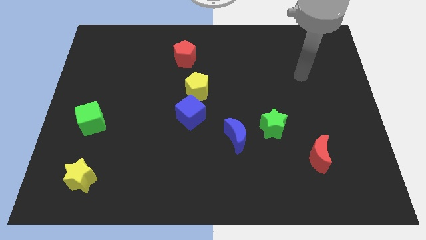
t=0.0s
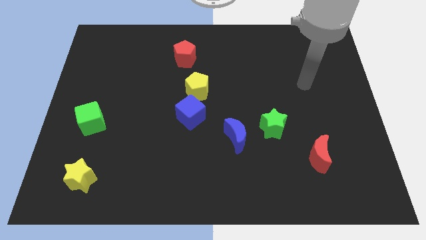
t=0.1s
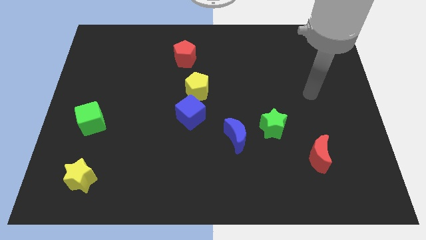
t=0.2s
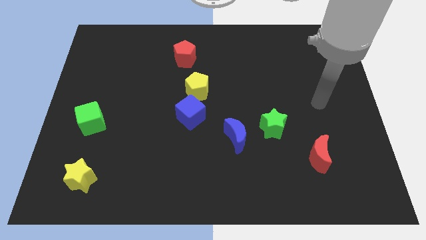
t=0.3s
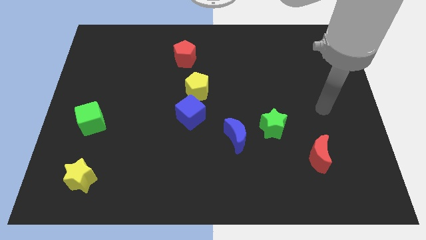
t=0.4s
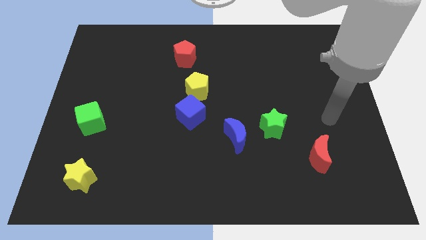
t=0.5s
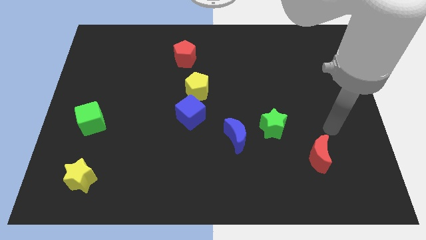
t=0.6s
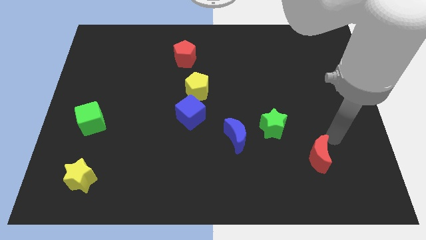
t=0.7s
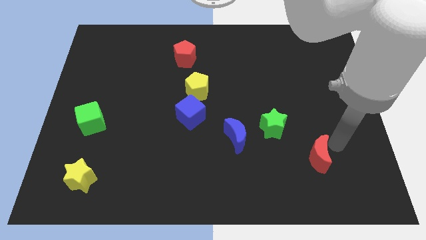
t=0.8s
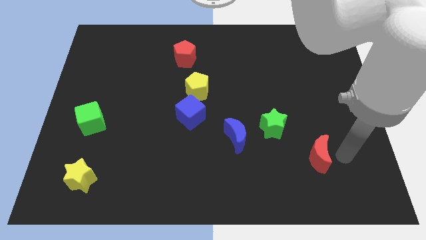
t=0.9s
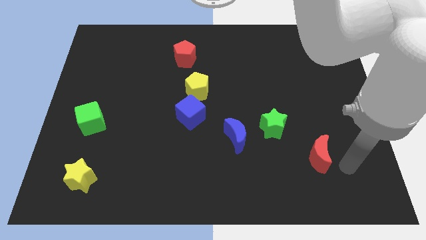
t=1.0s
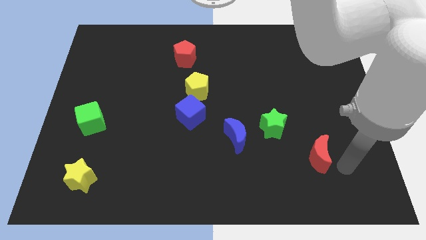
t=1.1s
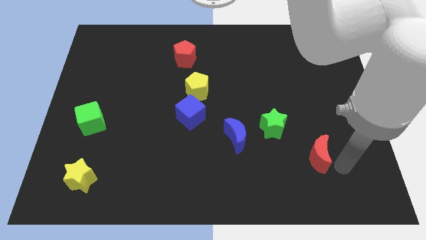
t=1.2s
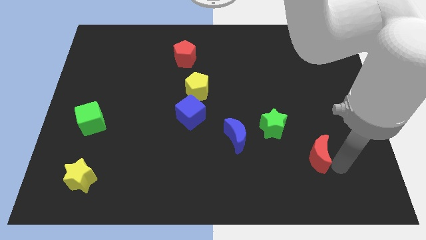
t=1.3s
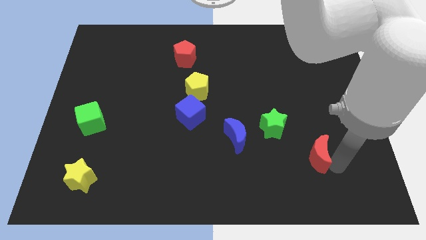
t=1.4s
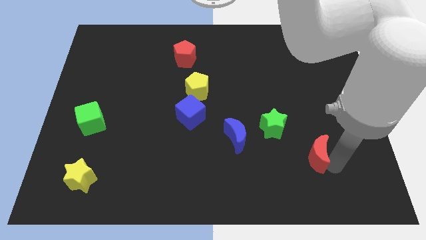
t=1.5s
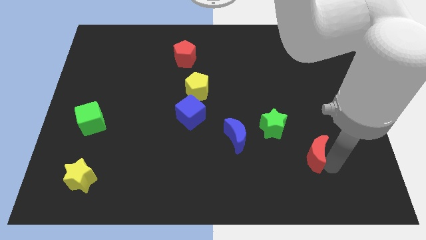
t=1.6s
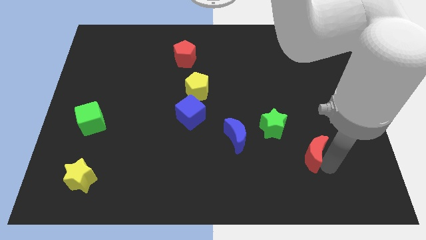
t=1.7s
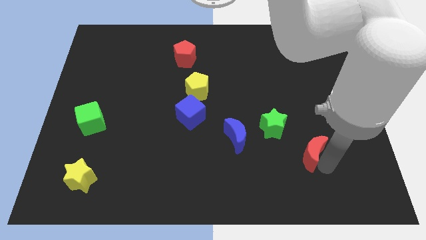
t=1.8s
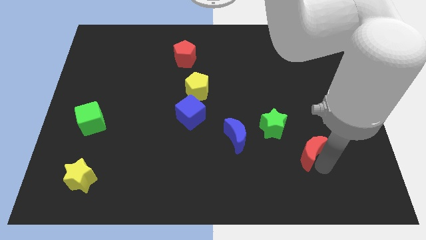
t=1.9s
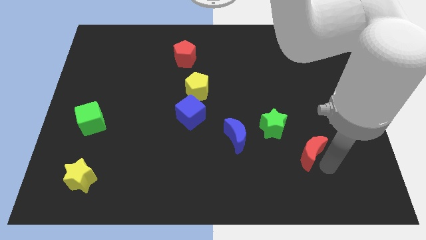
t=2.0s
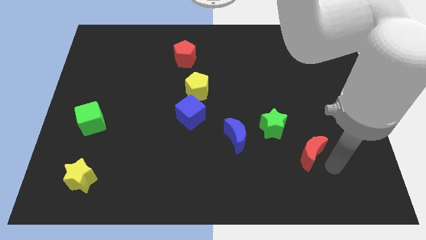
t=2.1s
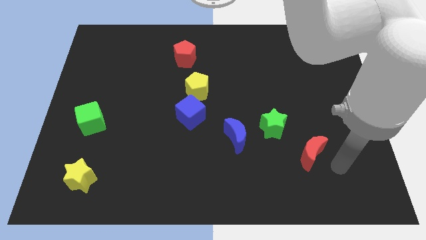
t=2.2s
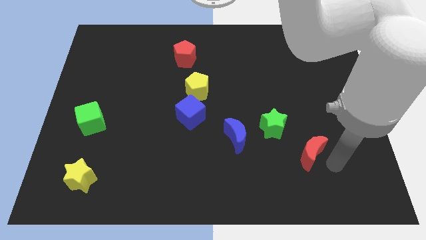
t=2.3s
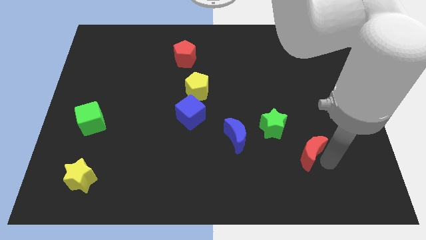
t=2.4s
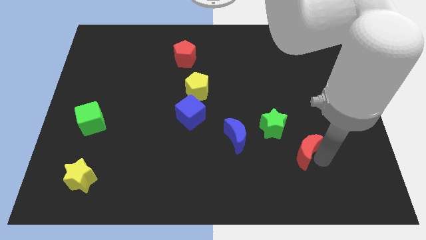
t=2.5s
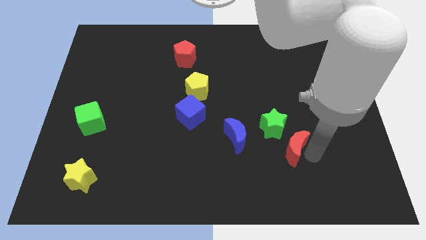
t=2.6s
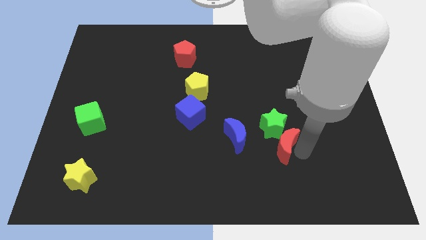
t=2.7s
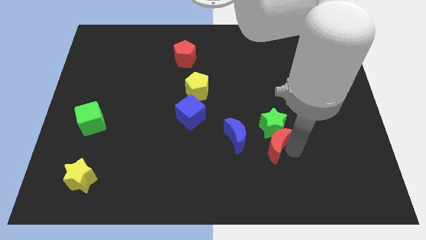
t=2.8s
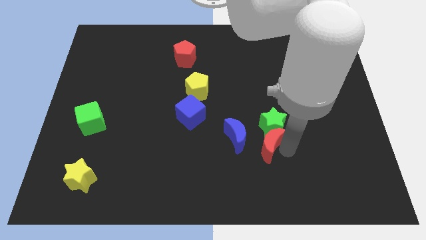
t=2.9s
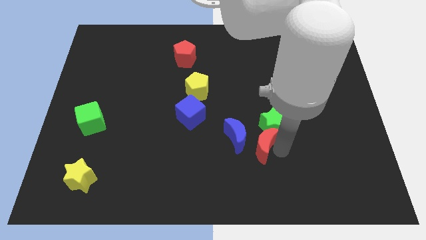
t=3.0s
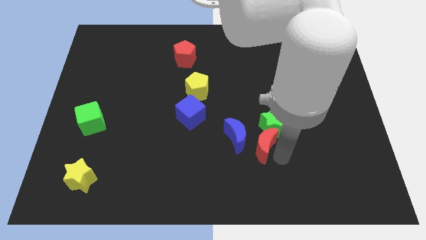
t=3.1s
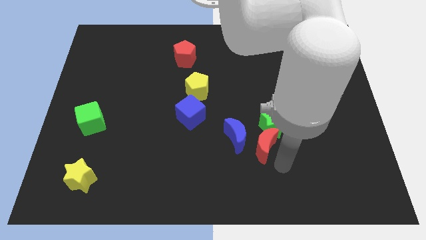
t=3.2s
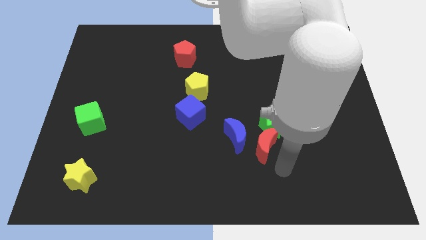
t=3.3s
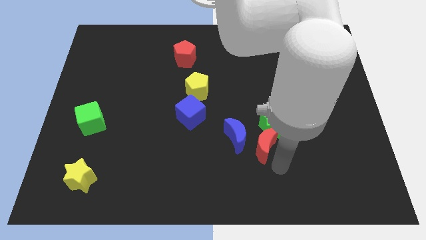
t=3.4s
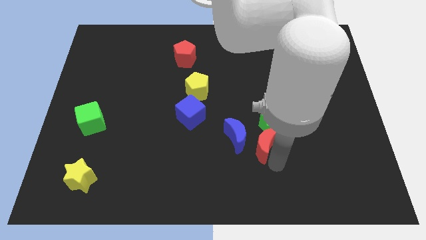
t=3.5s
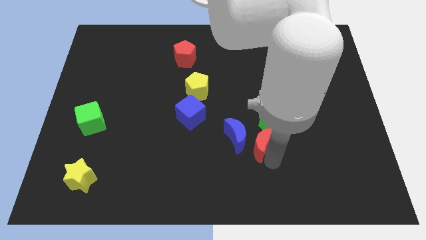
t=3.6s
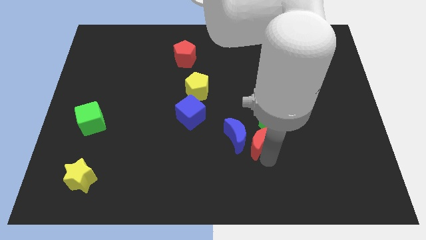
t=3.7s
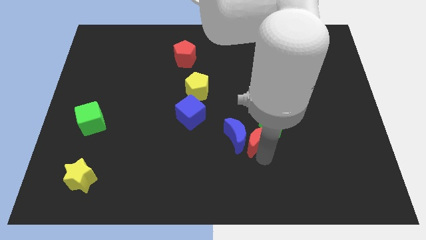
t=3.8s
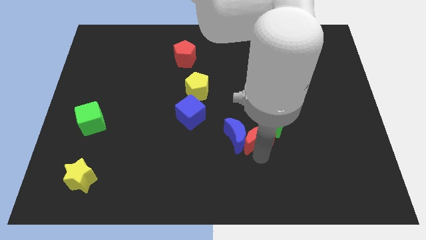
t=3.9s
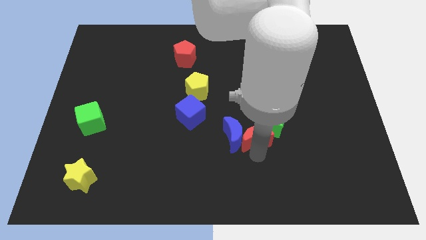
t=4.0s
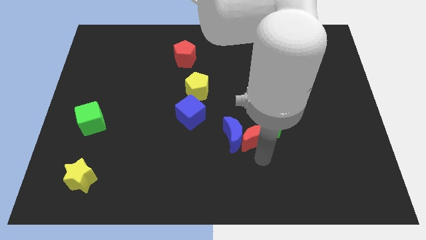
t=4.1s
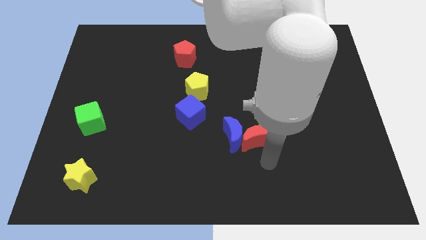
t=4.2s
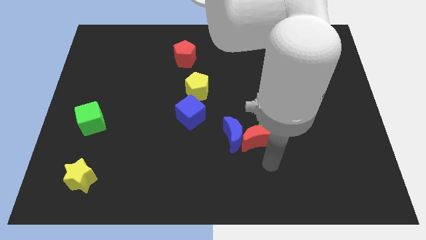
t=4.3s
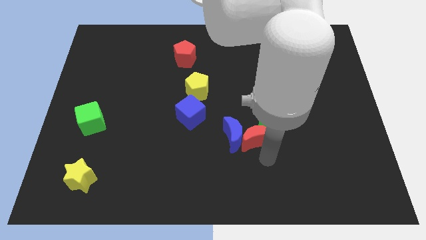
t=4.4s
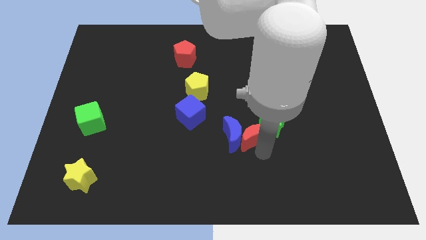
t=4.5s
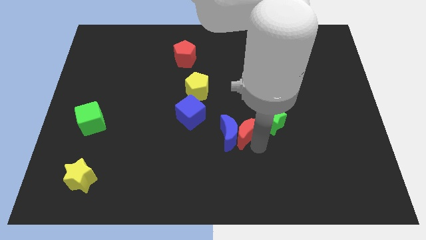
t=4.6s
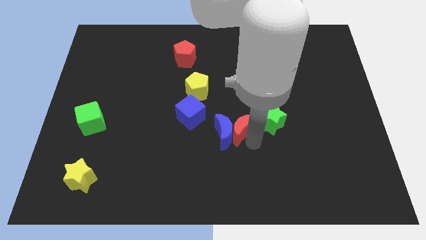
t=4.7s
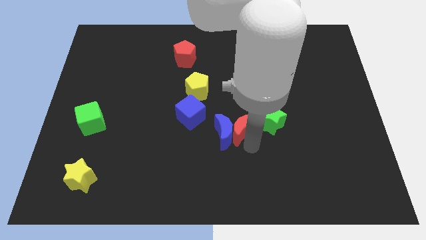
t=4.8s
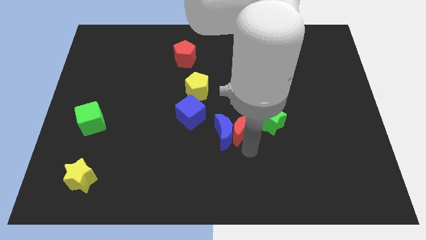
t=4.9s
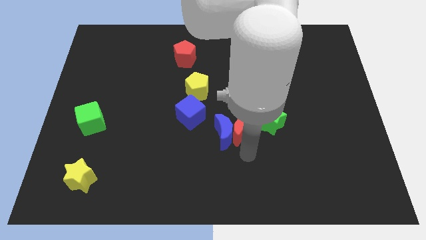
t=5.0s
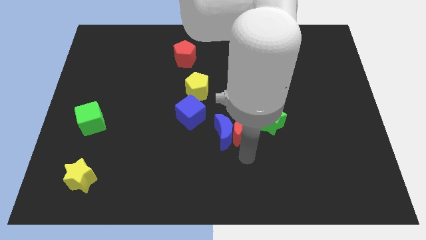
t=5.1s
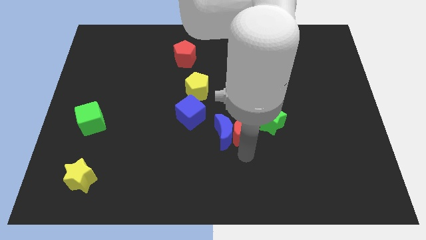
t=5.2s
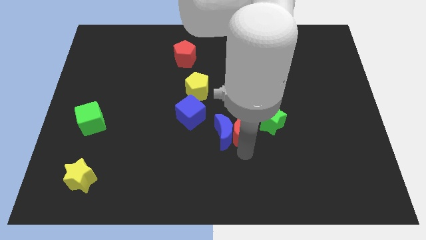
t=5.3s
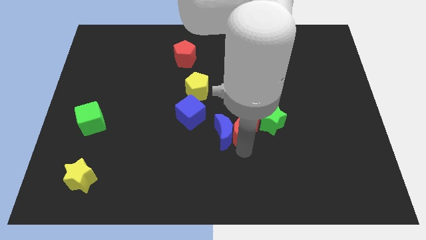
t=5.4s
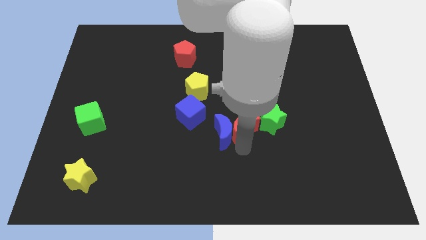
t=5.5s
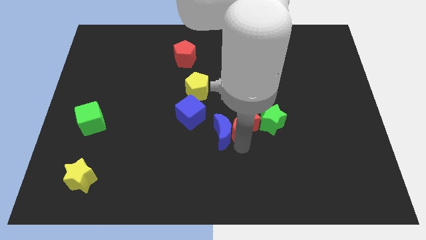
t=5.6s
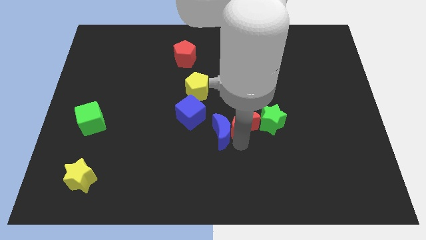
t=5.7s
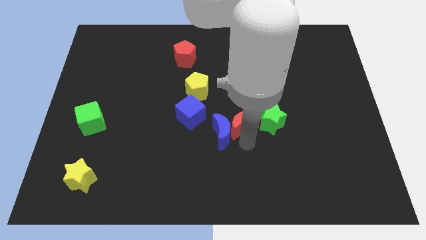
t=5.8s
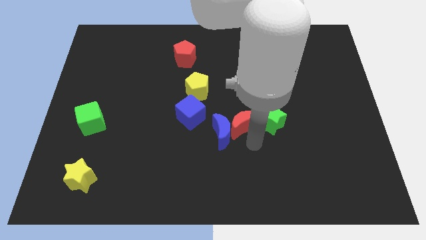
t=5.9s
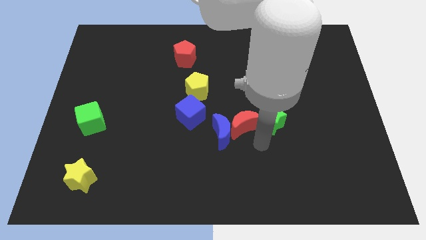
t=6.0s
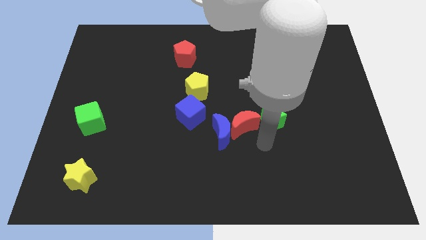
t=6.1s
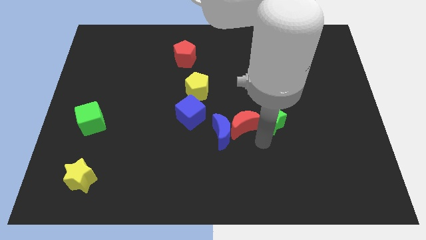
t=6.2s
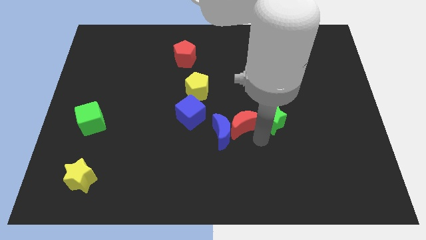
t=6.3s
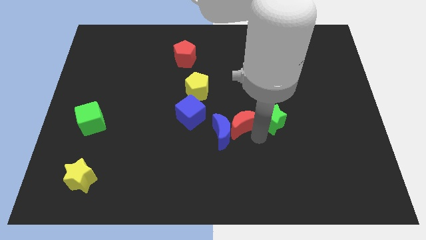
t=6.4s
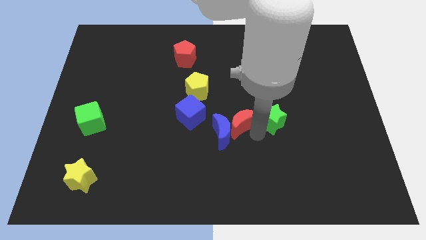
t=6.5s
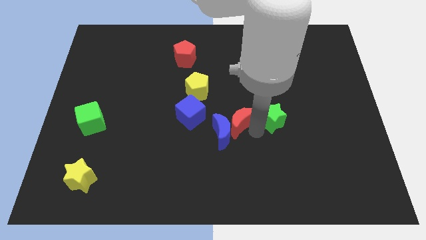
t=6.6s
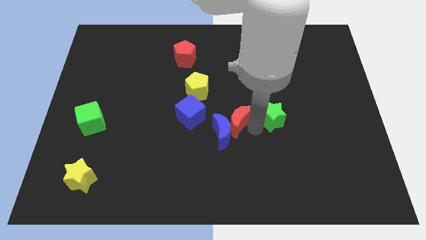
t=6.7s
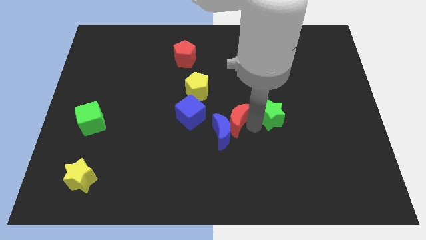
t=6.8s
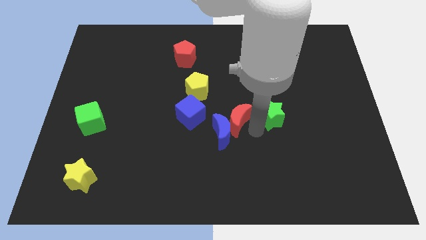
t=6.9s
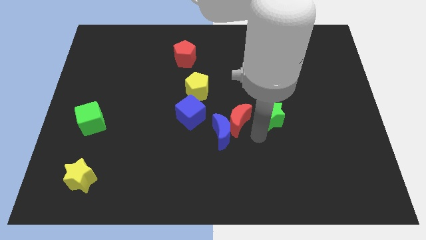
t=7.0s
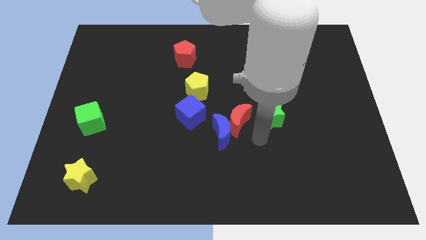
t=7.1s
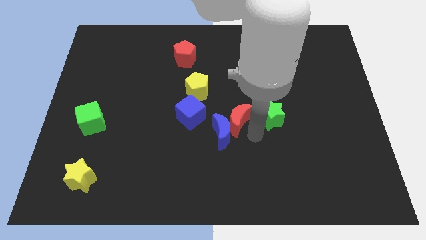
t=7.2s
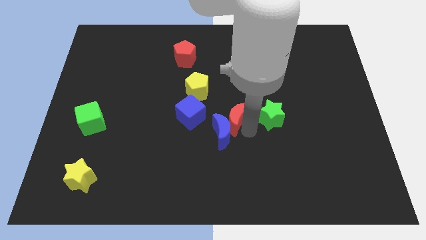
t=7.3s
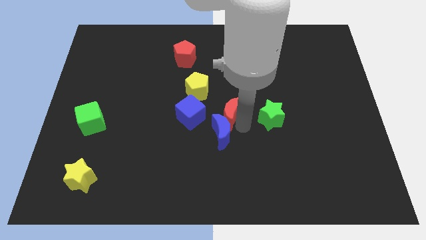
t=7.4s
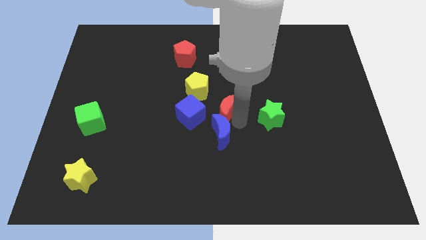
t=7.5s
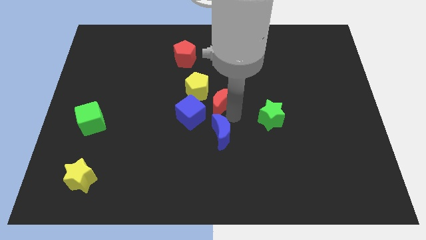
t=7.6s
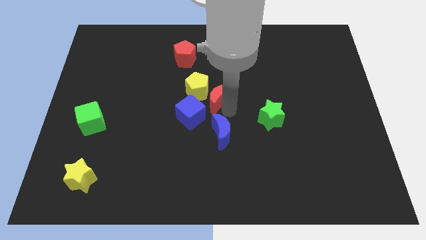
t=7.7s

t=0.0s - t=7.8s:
push the red moon close to the yellow pentagon
